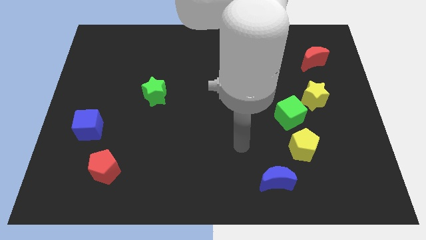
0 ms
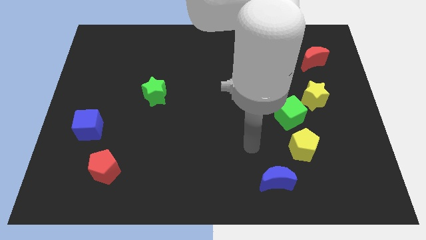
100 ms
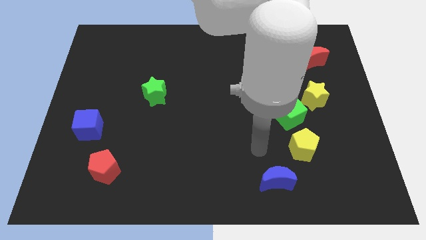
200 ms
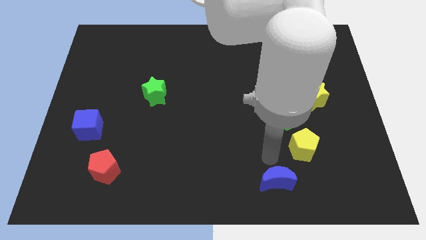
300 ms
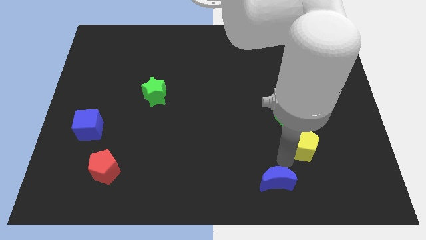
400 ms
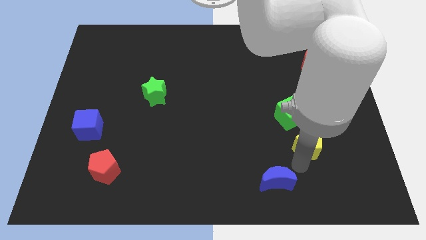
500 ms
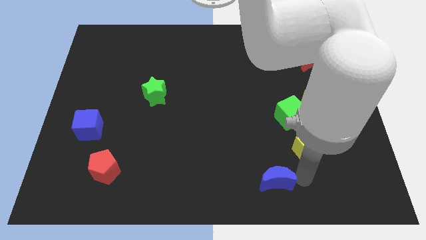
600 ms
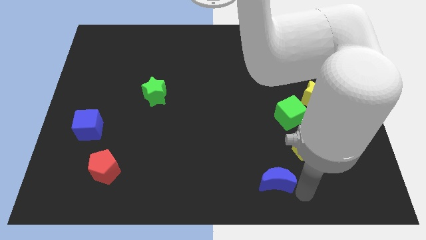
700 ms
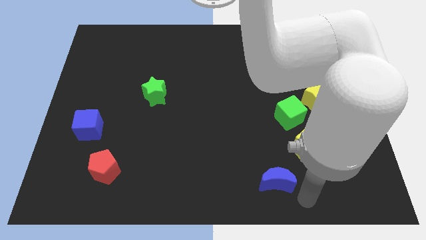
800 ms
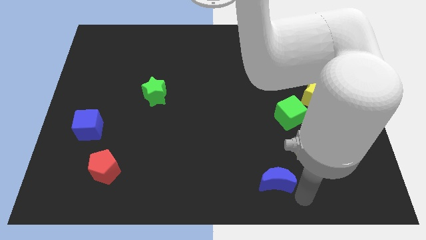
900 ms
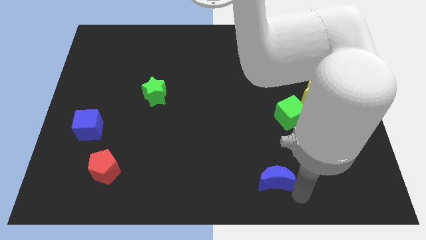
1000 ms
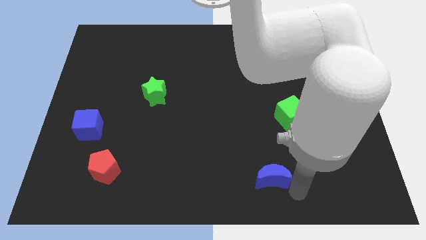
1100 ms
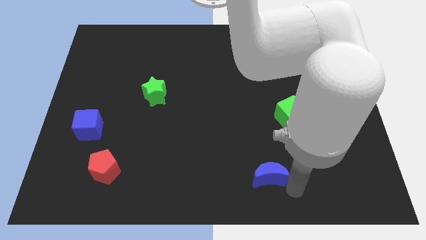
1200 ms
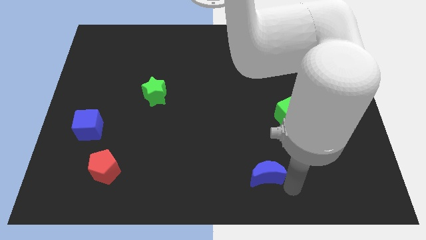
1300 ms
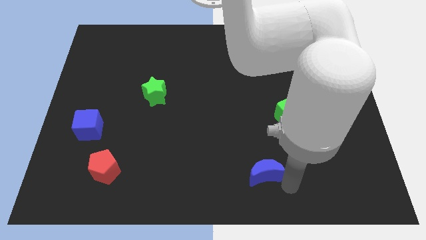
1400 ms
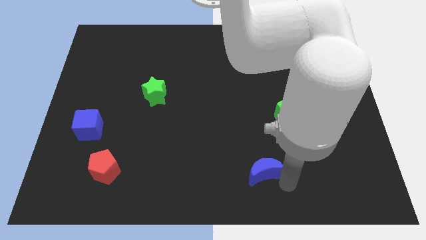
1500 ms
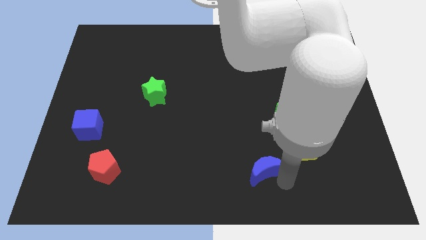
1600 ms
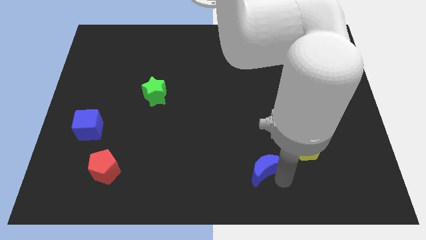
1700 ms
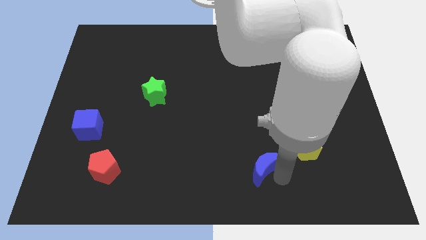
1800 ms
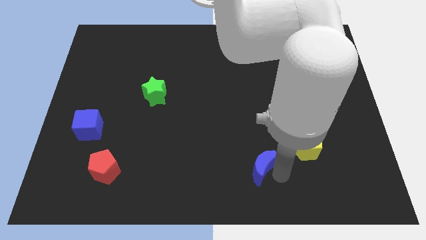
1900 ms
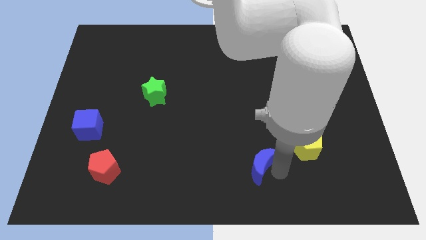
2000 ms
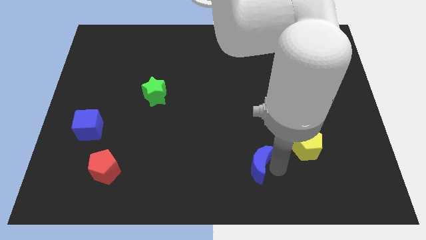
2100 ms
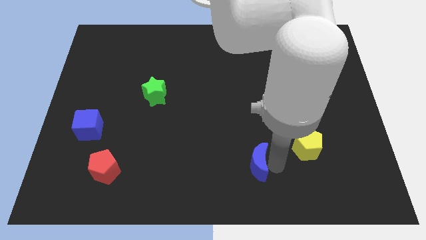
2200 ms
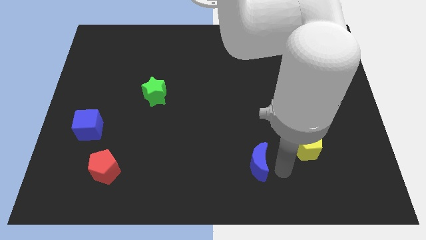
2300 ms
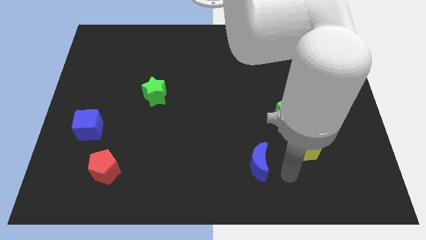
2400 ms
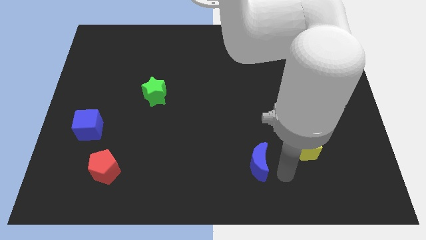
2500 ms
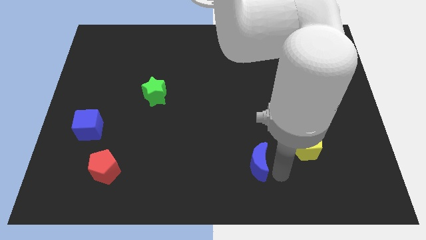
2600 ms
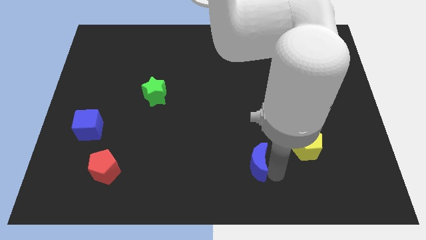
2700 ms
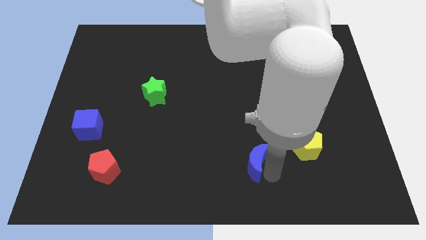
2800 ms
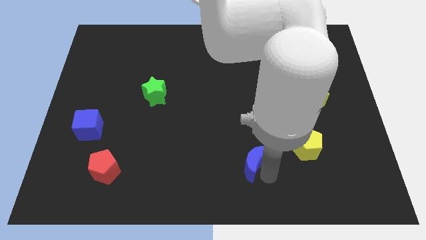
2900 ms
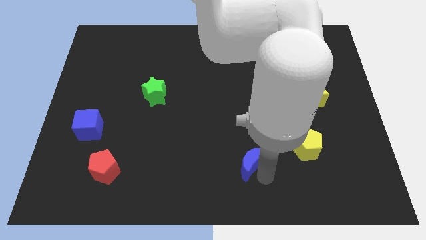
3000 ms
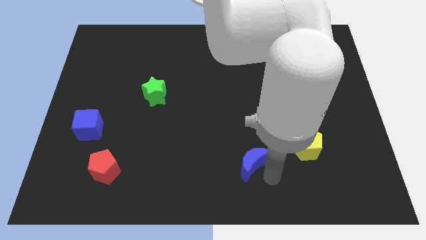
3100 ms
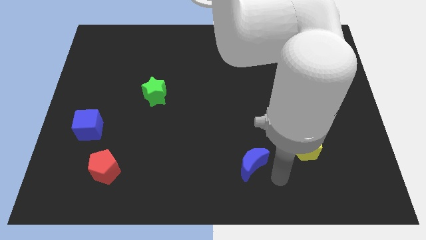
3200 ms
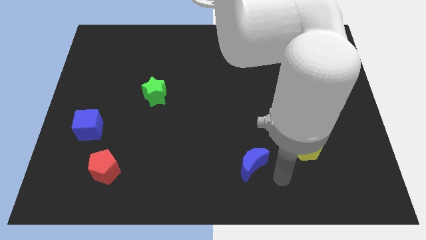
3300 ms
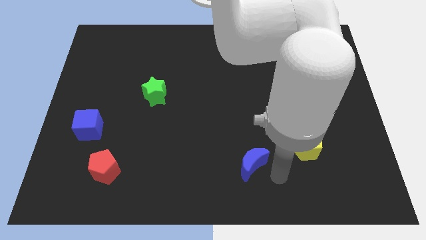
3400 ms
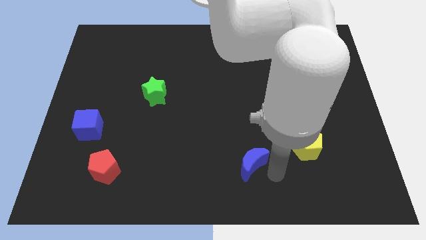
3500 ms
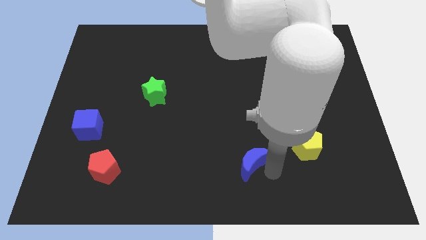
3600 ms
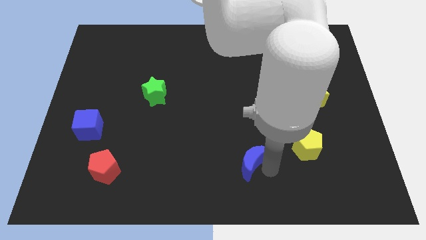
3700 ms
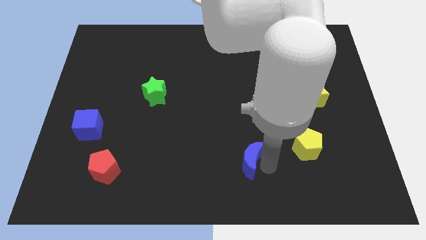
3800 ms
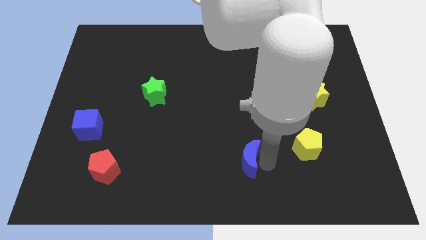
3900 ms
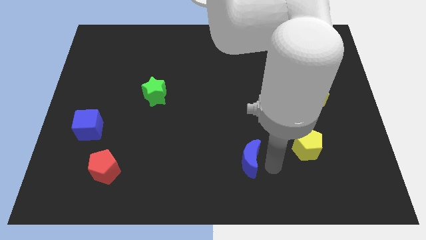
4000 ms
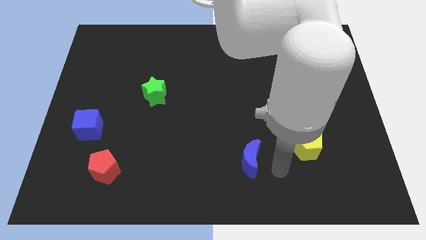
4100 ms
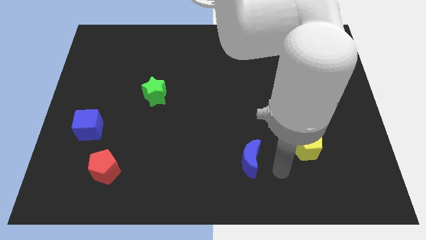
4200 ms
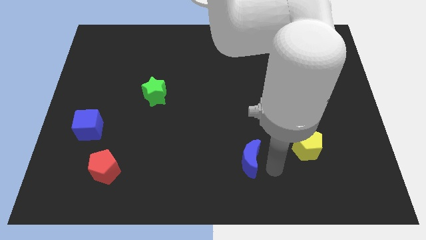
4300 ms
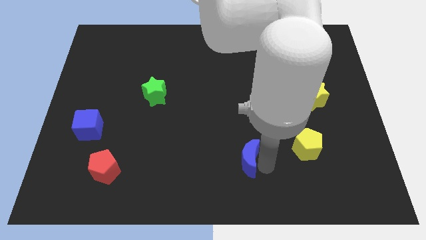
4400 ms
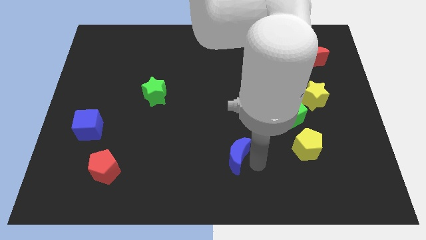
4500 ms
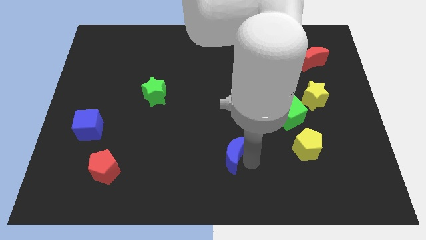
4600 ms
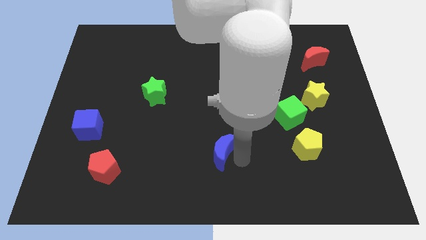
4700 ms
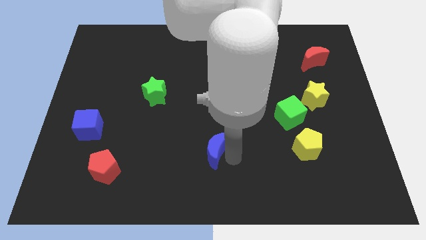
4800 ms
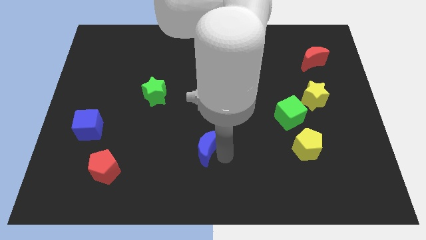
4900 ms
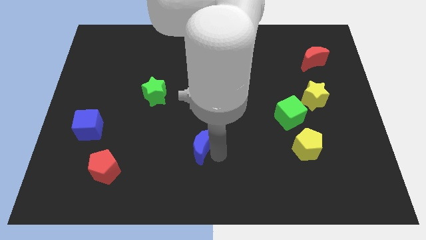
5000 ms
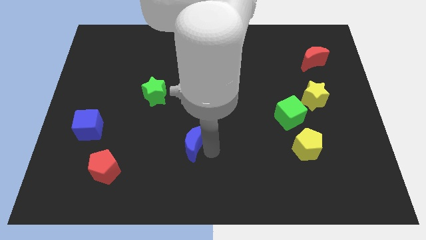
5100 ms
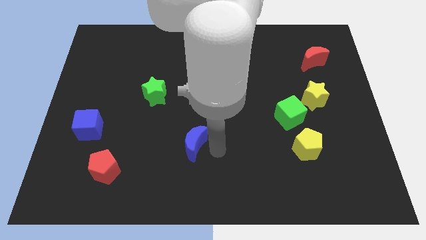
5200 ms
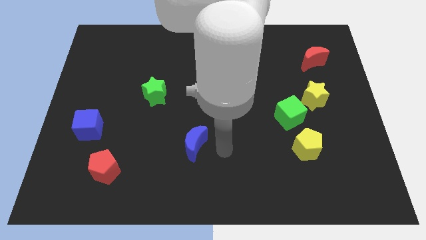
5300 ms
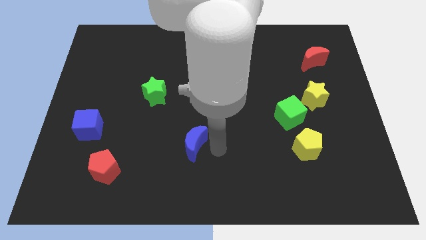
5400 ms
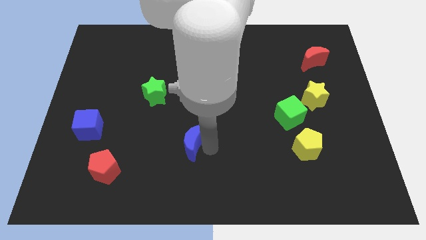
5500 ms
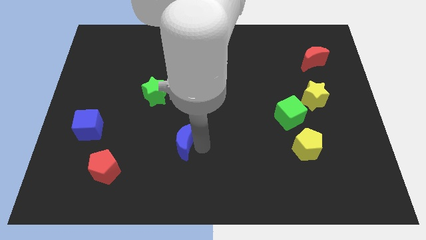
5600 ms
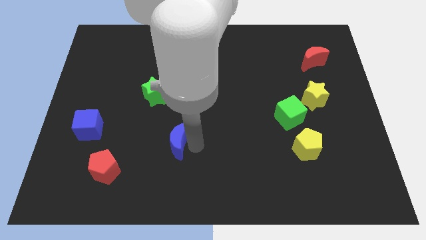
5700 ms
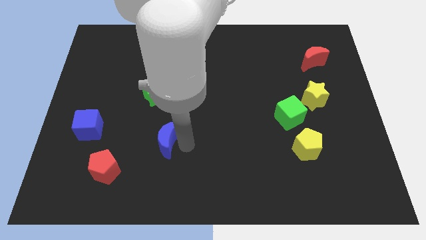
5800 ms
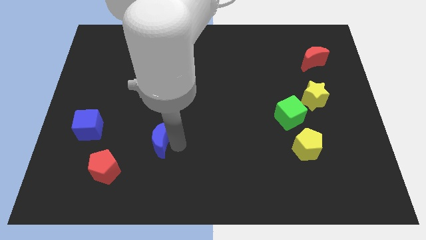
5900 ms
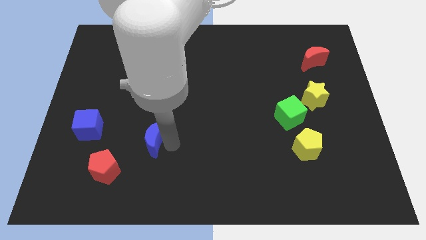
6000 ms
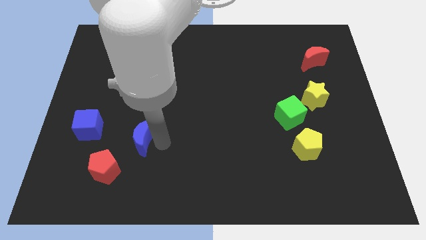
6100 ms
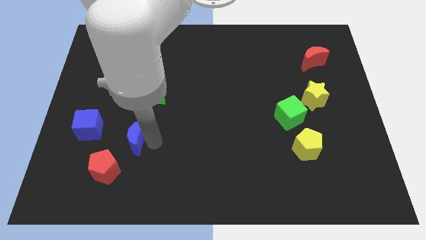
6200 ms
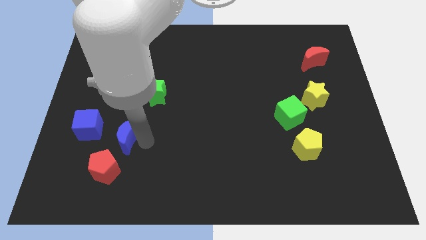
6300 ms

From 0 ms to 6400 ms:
put the blue moon to the top side of the red pentagon

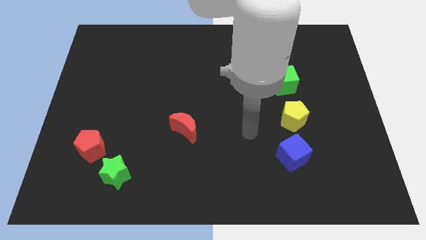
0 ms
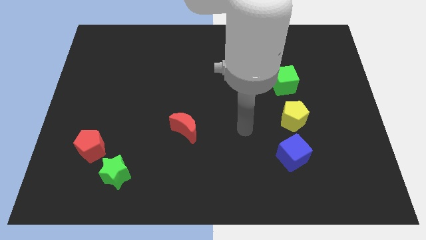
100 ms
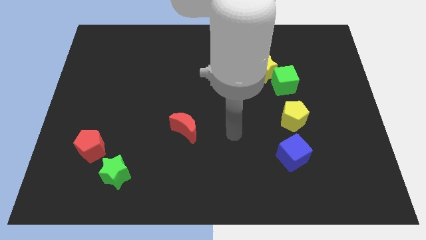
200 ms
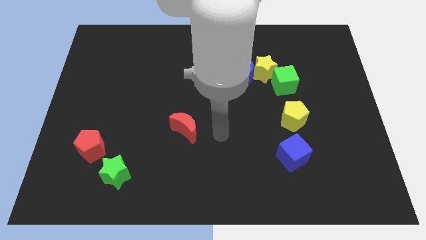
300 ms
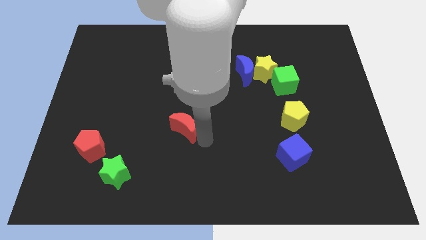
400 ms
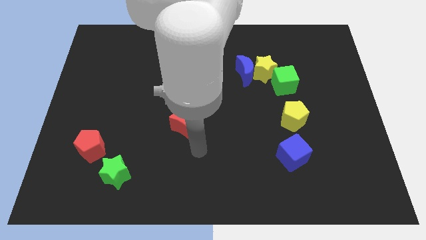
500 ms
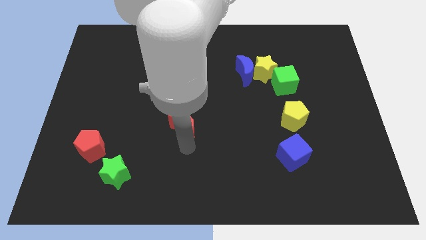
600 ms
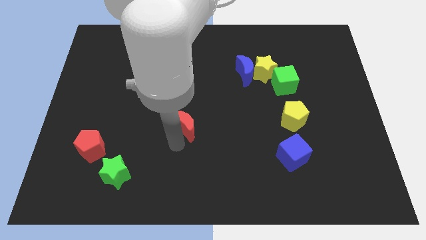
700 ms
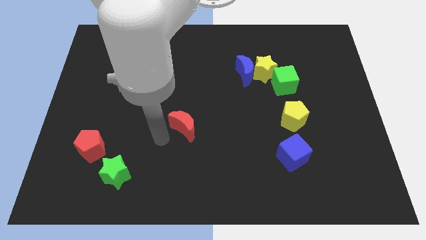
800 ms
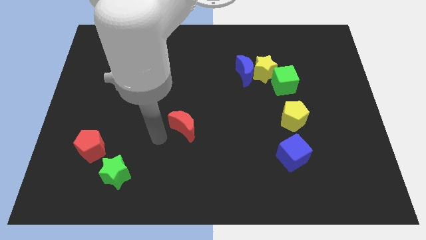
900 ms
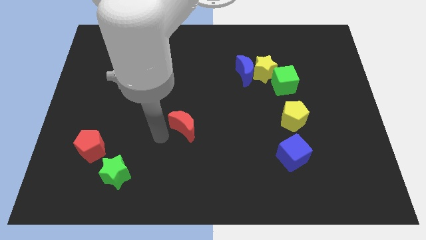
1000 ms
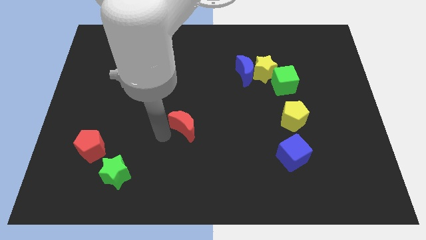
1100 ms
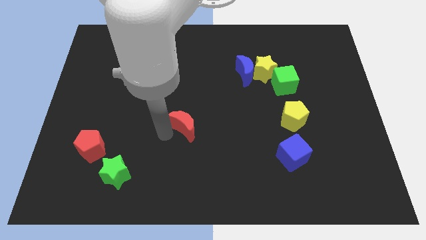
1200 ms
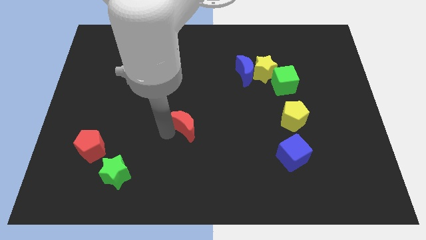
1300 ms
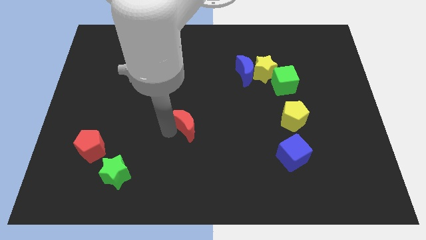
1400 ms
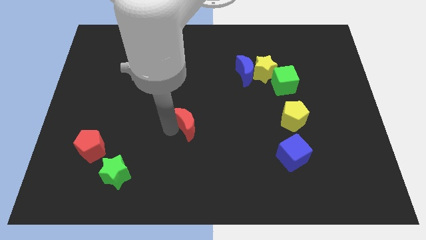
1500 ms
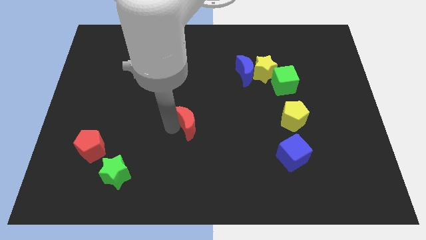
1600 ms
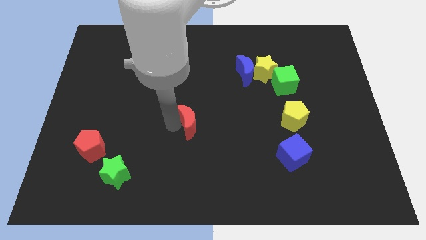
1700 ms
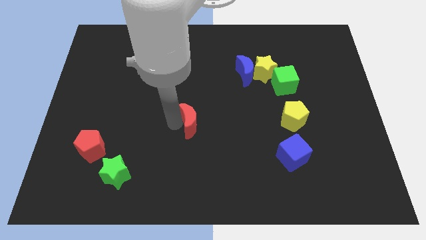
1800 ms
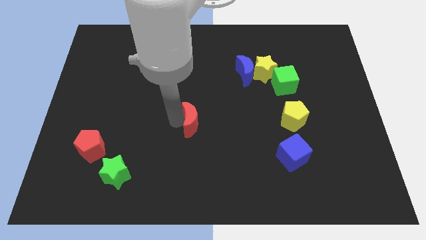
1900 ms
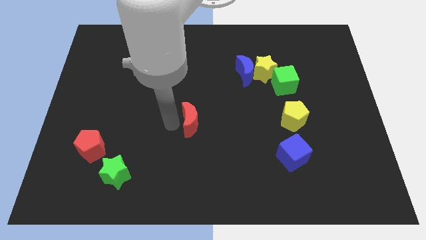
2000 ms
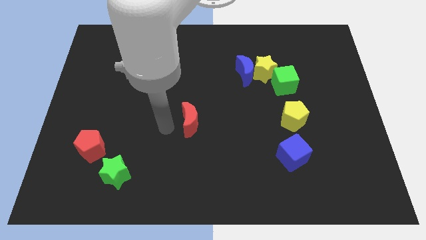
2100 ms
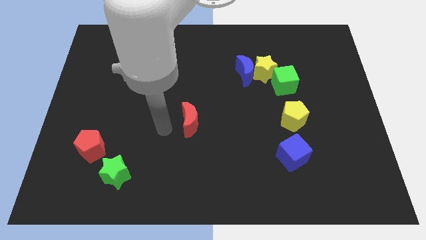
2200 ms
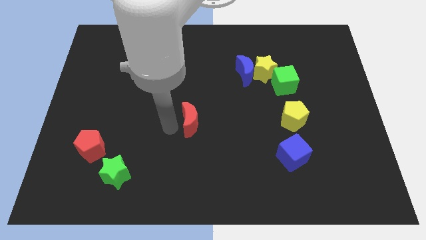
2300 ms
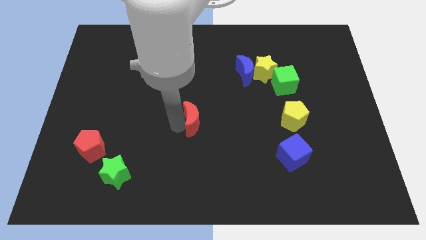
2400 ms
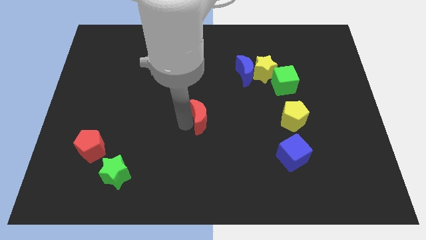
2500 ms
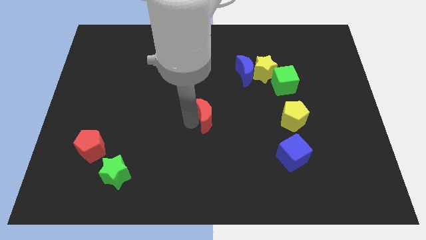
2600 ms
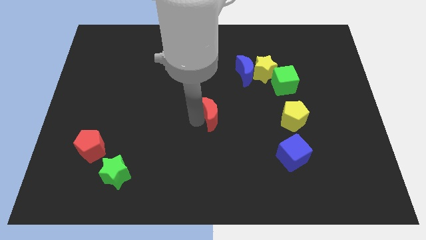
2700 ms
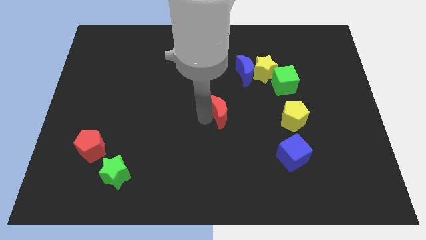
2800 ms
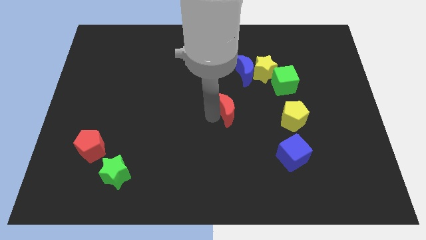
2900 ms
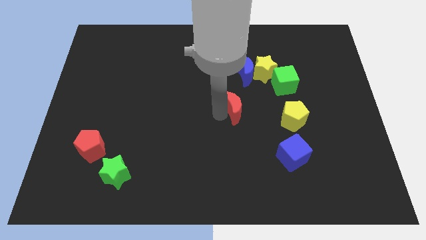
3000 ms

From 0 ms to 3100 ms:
slide the red moon to the bottom of the blue moon
